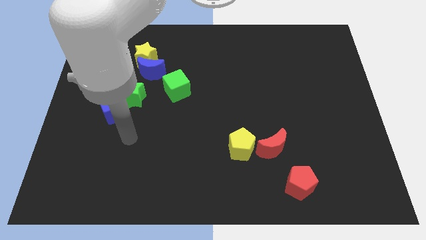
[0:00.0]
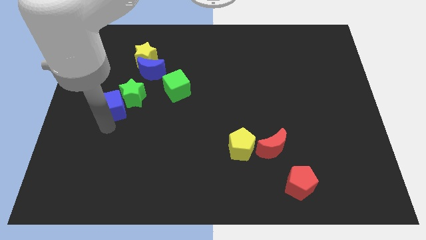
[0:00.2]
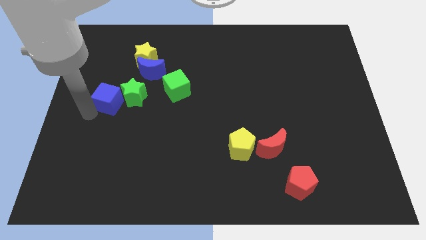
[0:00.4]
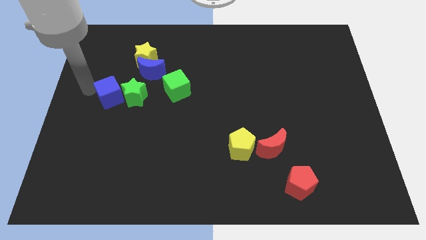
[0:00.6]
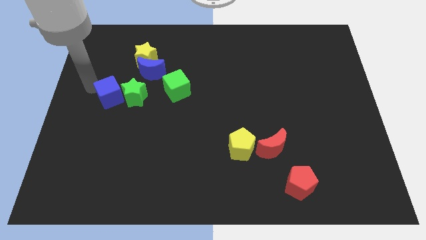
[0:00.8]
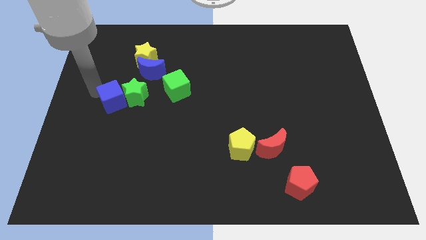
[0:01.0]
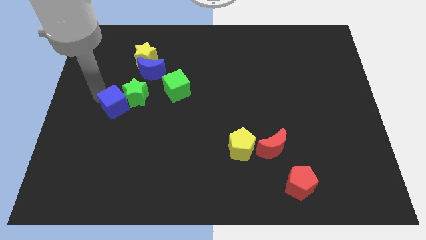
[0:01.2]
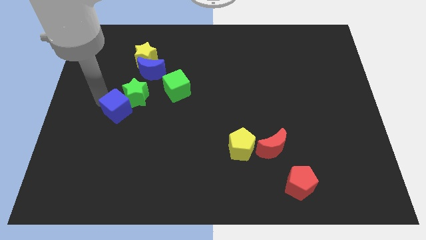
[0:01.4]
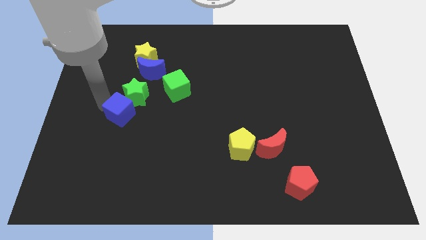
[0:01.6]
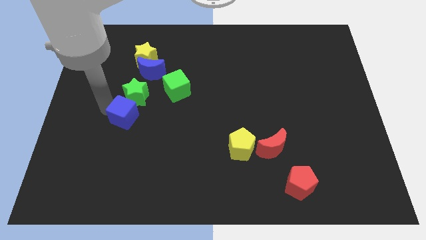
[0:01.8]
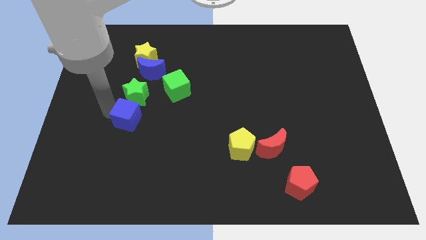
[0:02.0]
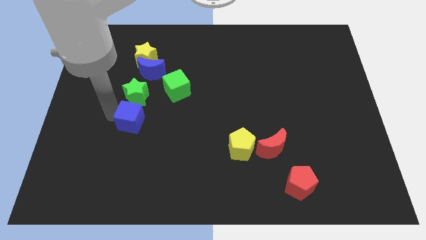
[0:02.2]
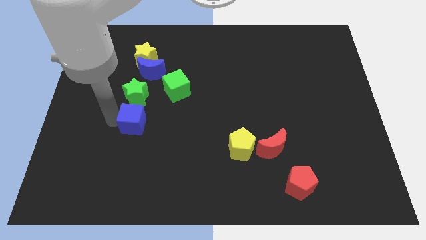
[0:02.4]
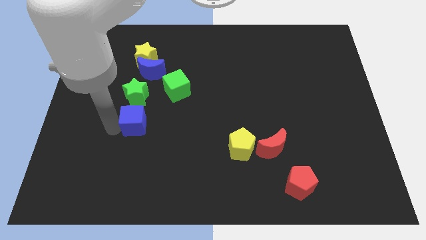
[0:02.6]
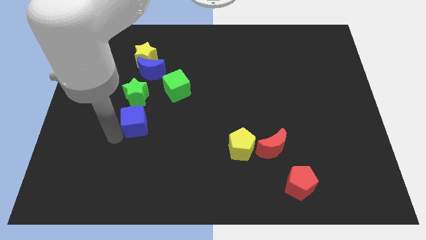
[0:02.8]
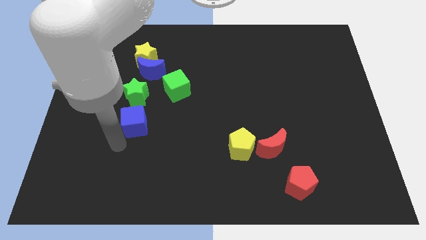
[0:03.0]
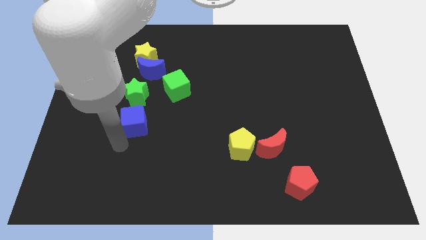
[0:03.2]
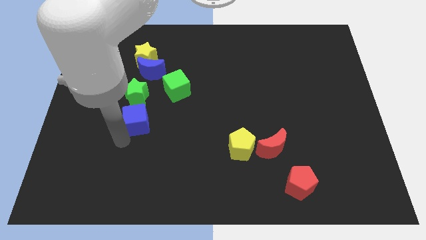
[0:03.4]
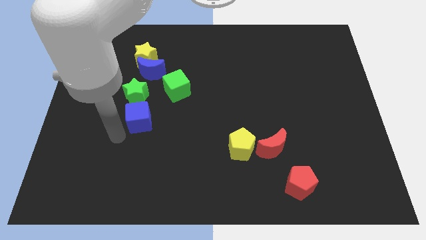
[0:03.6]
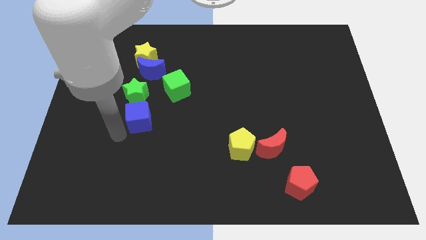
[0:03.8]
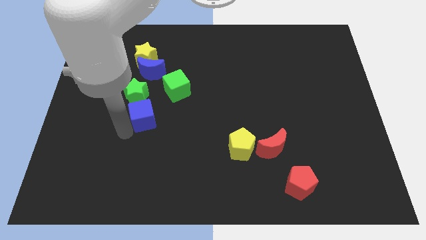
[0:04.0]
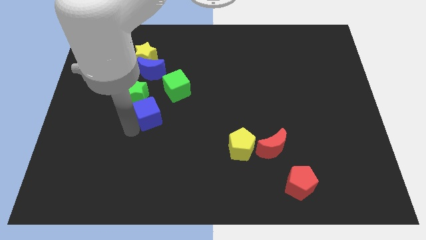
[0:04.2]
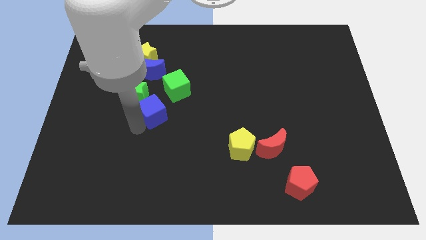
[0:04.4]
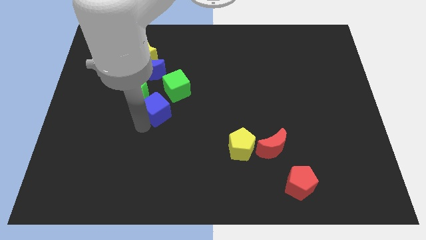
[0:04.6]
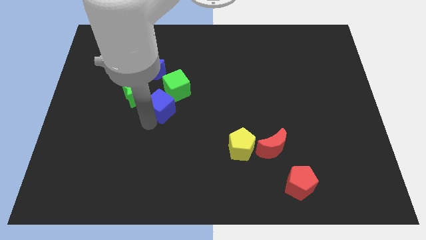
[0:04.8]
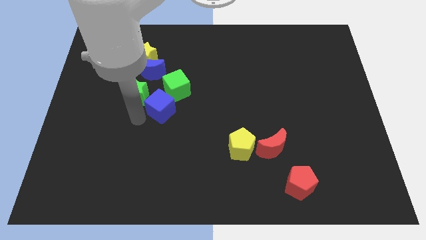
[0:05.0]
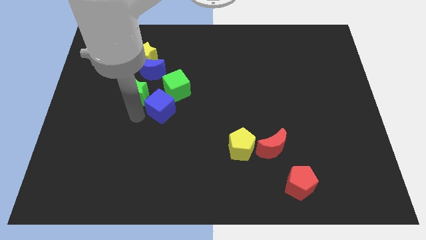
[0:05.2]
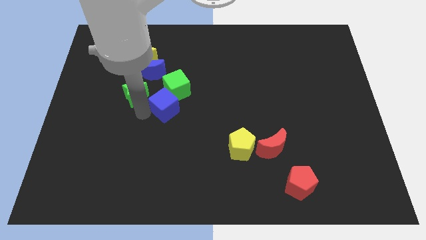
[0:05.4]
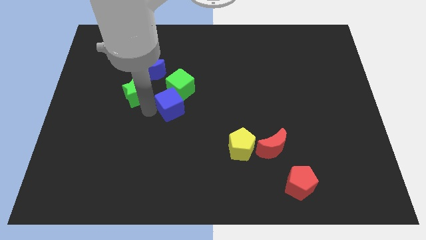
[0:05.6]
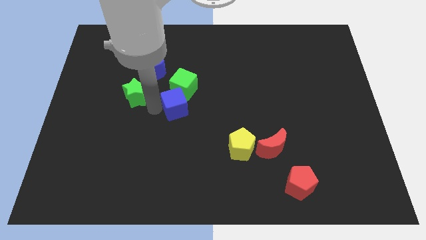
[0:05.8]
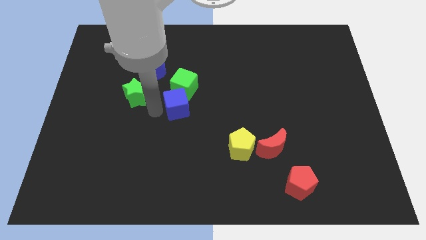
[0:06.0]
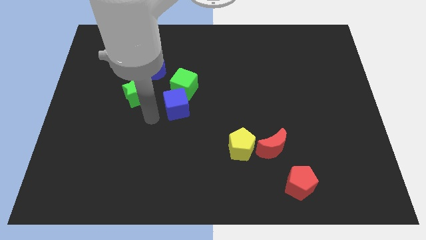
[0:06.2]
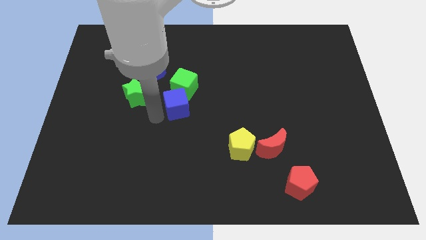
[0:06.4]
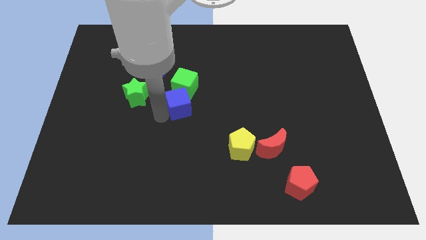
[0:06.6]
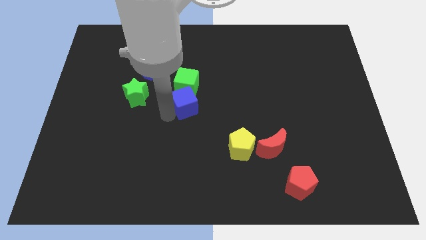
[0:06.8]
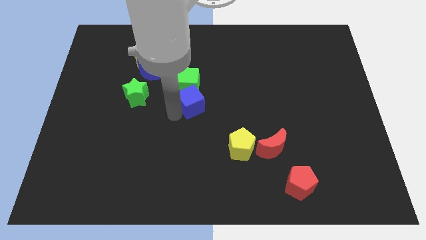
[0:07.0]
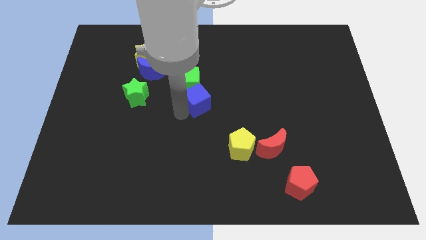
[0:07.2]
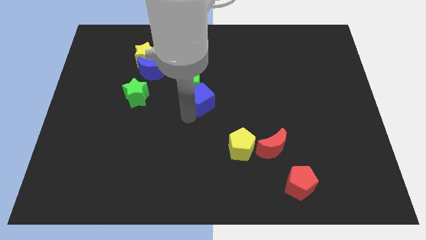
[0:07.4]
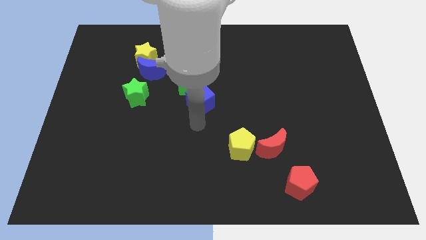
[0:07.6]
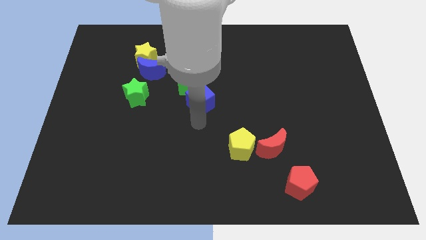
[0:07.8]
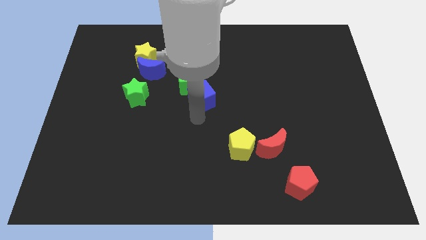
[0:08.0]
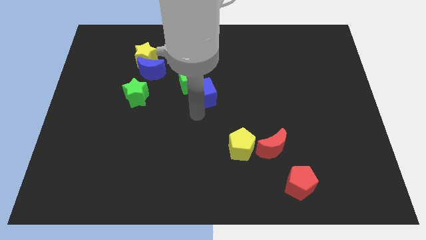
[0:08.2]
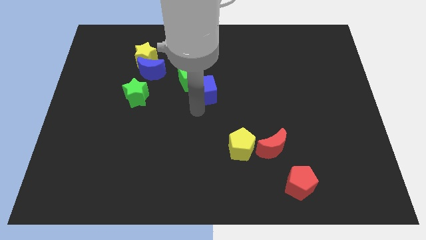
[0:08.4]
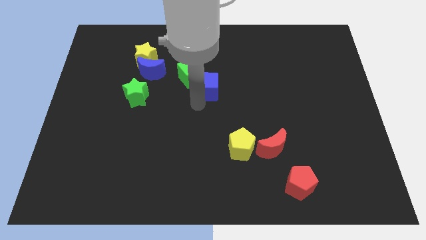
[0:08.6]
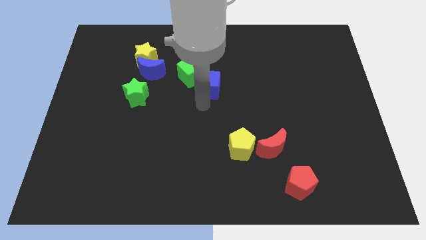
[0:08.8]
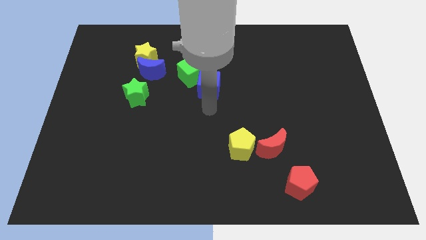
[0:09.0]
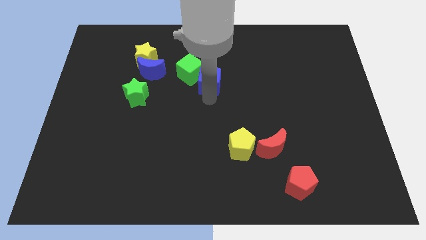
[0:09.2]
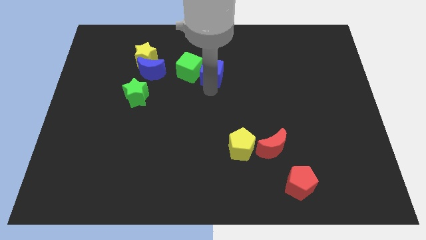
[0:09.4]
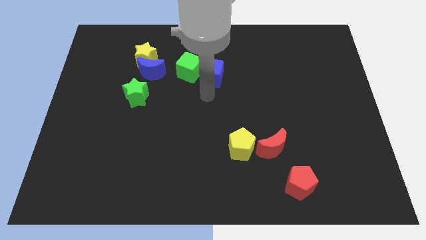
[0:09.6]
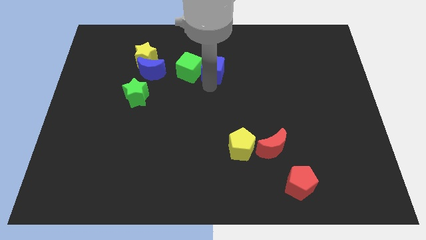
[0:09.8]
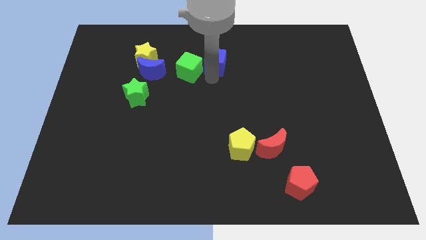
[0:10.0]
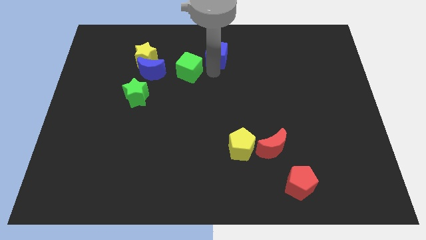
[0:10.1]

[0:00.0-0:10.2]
move the blue cube to the top side
